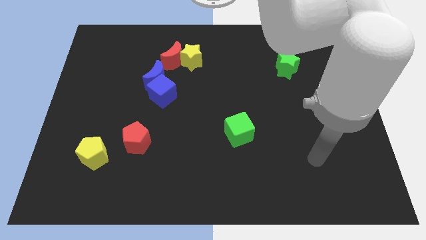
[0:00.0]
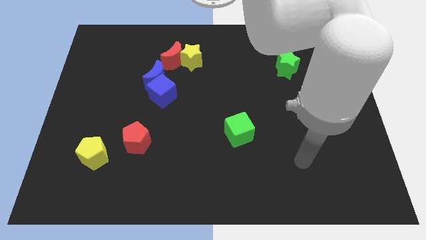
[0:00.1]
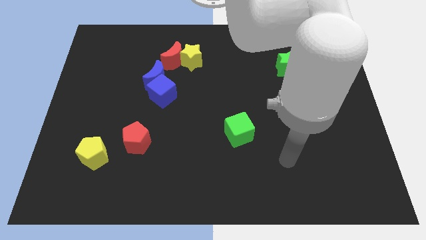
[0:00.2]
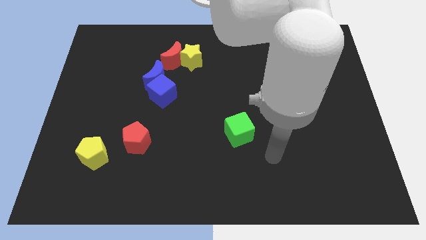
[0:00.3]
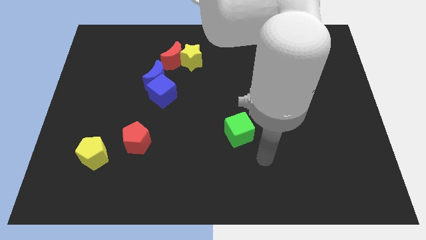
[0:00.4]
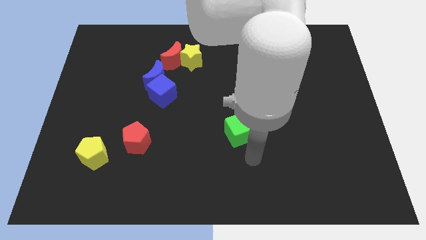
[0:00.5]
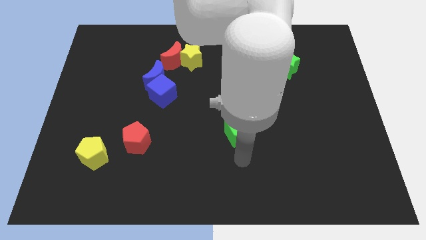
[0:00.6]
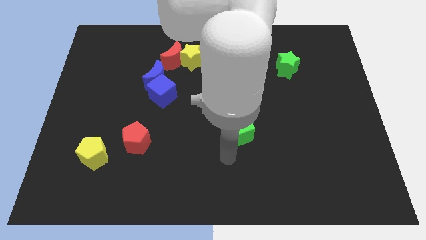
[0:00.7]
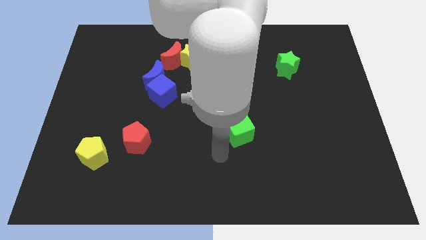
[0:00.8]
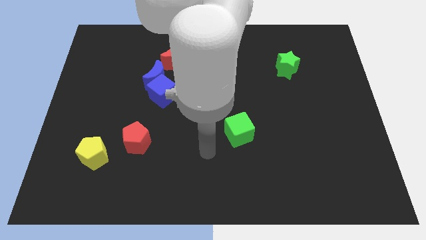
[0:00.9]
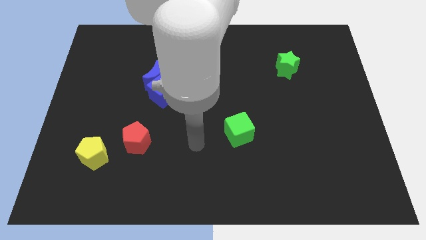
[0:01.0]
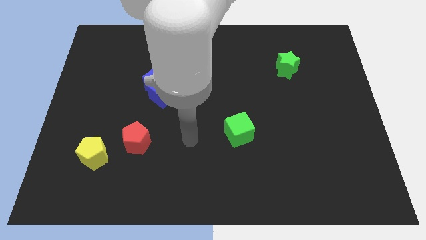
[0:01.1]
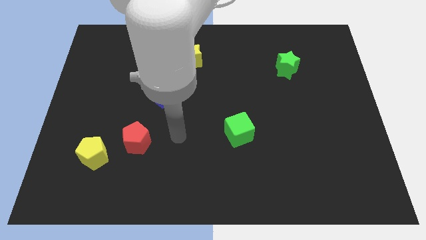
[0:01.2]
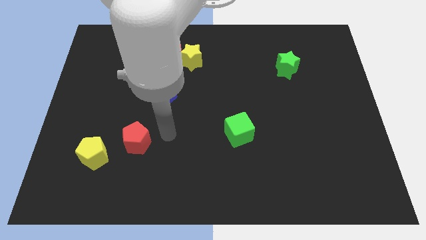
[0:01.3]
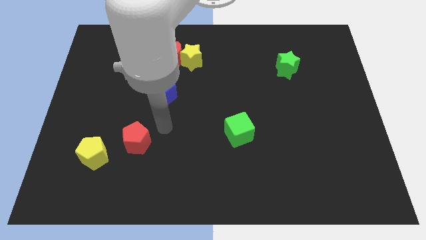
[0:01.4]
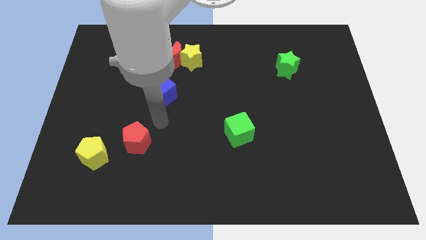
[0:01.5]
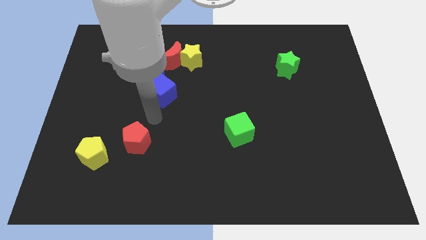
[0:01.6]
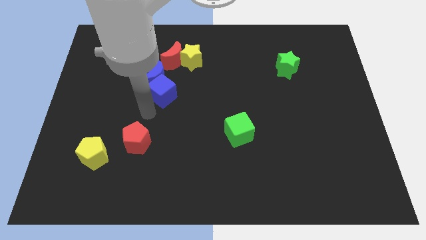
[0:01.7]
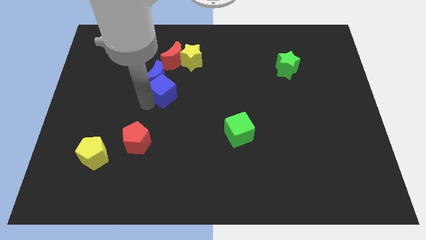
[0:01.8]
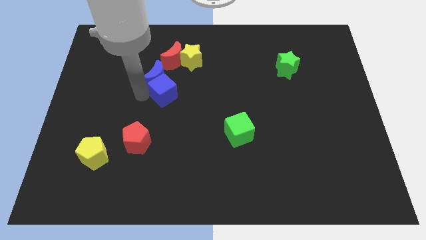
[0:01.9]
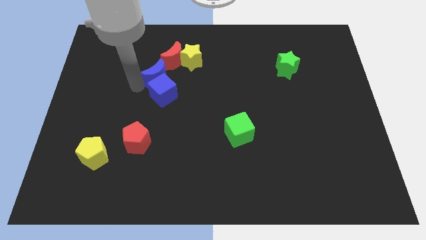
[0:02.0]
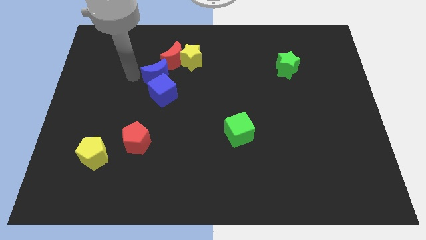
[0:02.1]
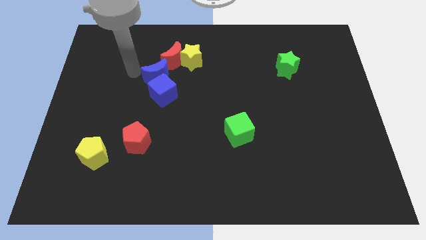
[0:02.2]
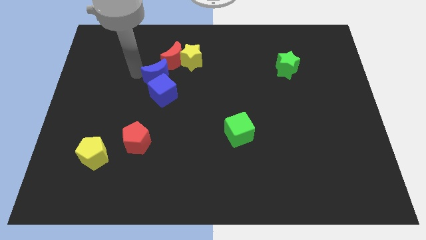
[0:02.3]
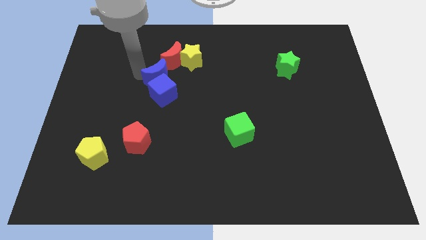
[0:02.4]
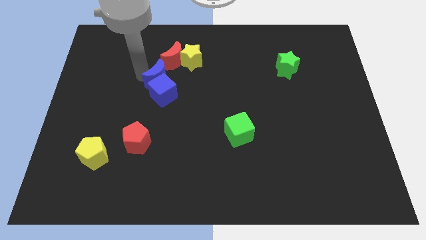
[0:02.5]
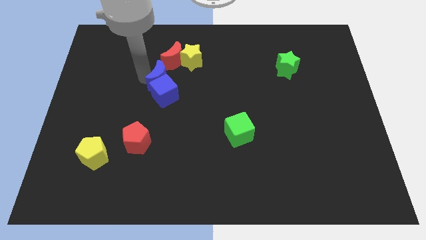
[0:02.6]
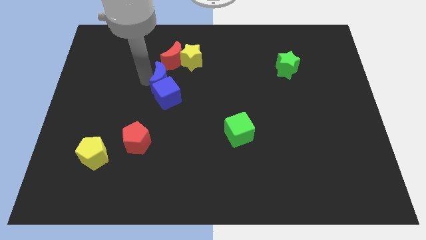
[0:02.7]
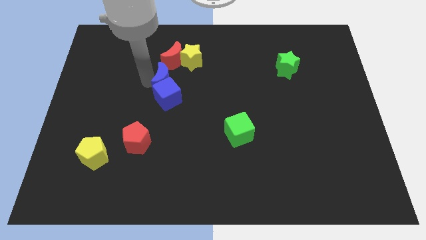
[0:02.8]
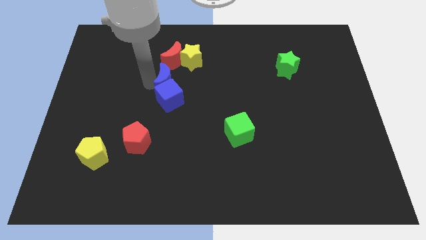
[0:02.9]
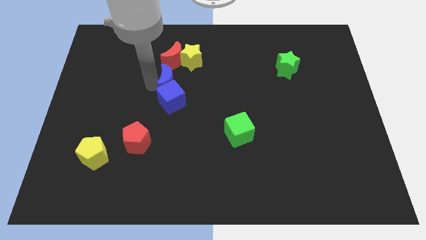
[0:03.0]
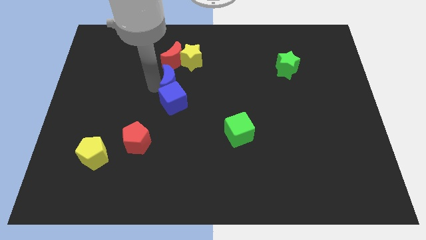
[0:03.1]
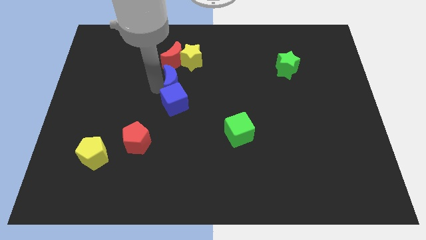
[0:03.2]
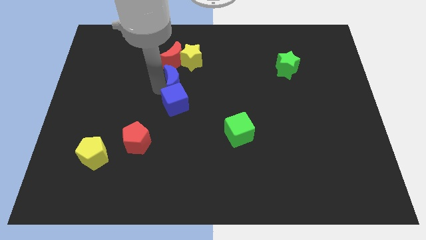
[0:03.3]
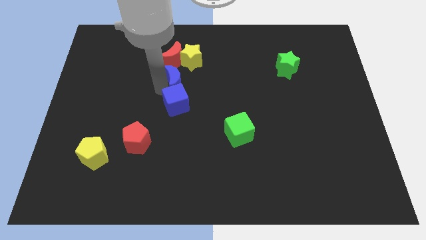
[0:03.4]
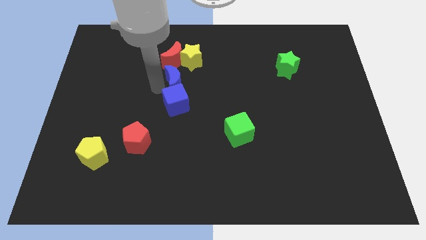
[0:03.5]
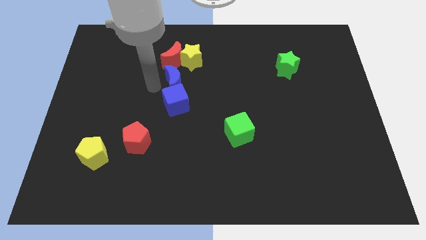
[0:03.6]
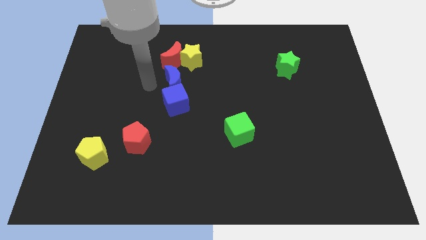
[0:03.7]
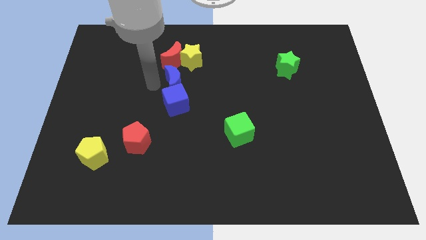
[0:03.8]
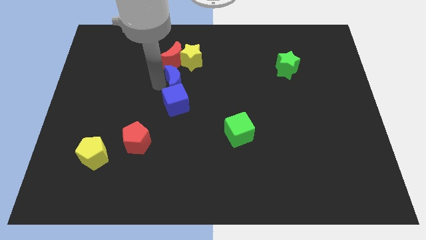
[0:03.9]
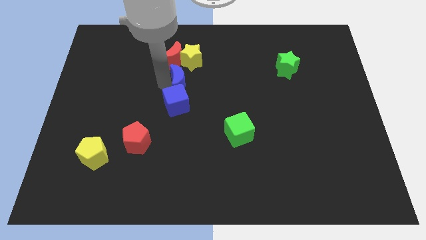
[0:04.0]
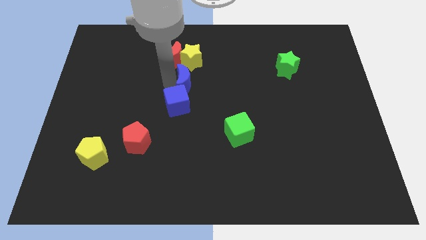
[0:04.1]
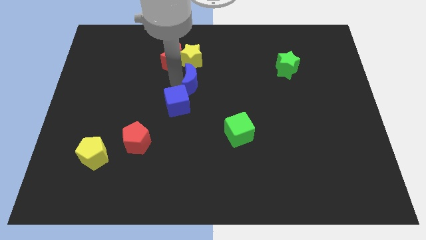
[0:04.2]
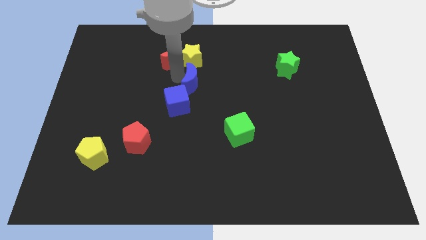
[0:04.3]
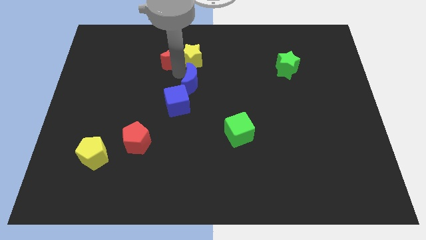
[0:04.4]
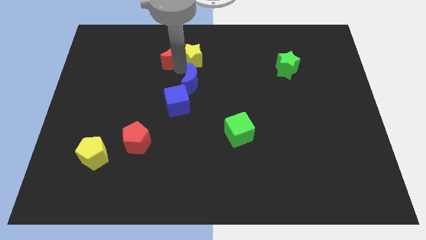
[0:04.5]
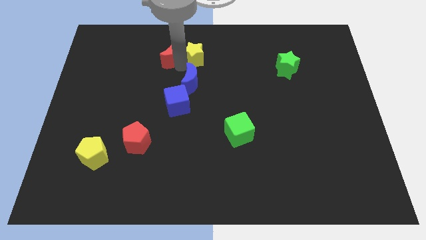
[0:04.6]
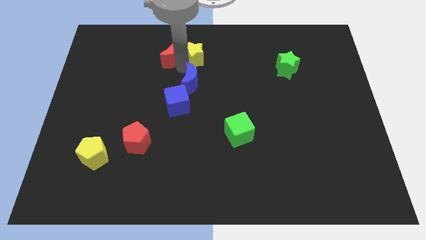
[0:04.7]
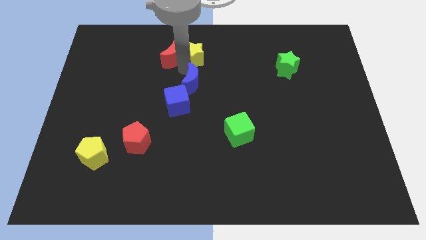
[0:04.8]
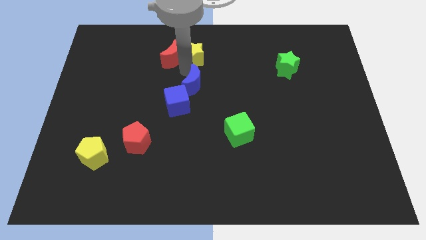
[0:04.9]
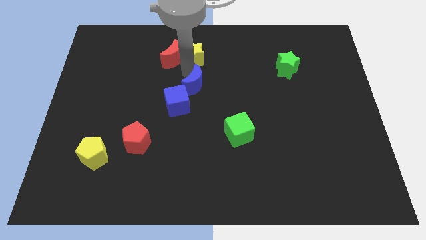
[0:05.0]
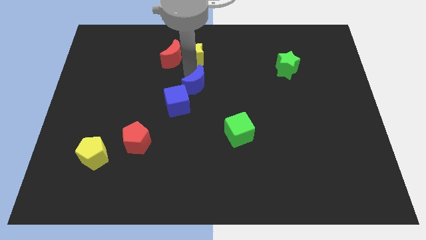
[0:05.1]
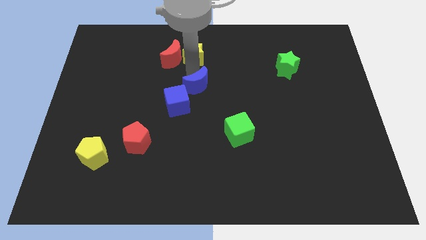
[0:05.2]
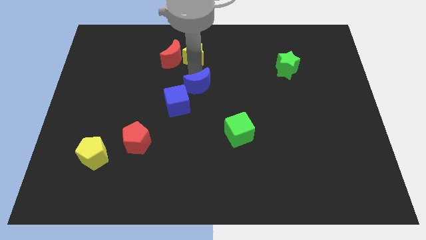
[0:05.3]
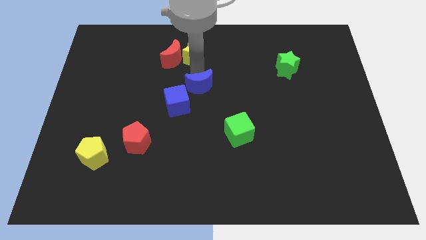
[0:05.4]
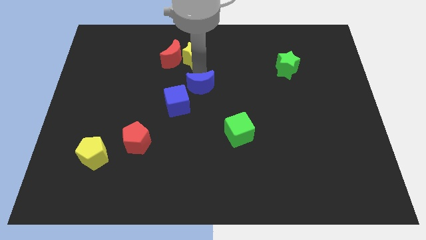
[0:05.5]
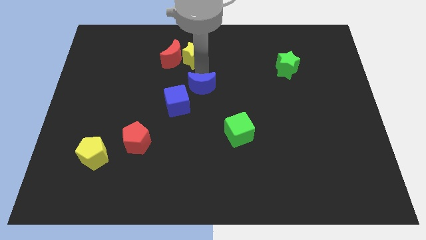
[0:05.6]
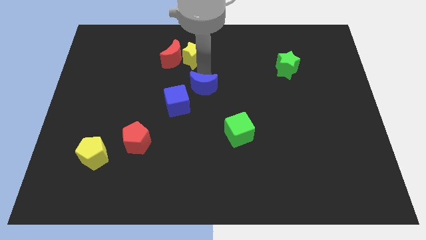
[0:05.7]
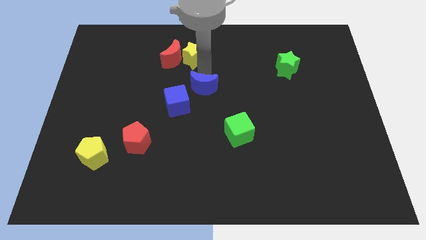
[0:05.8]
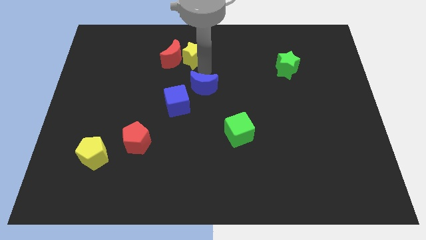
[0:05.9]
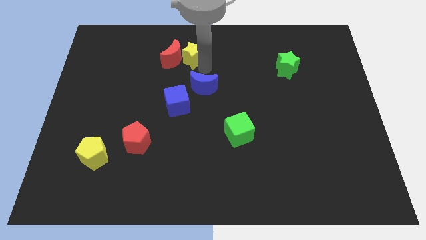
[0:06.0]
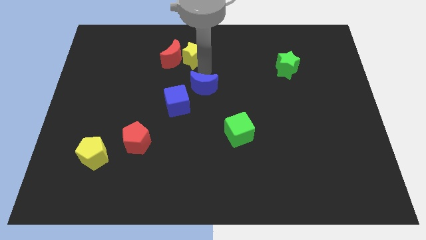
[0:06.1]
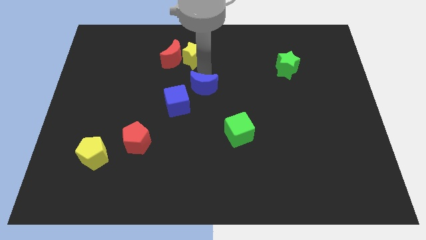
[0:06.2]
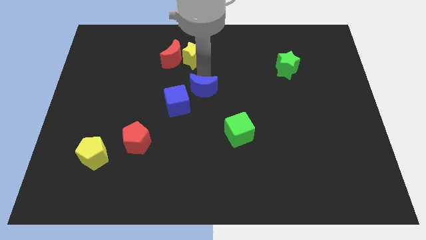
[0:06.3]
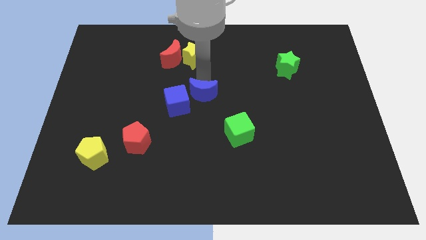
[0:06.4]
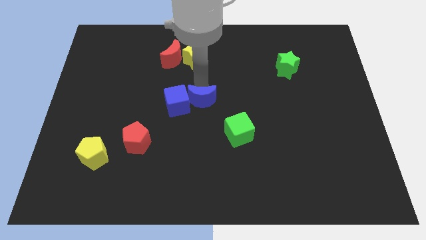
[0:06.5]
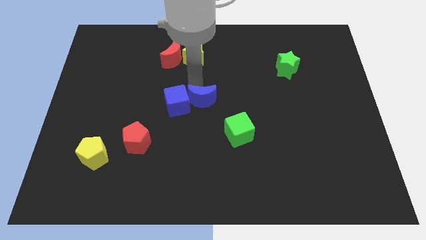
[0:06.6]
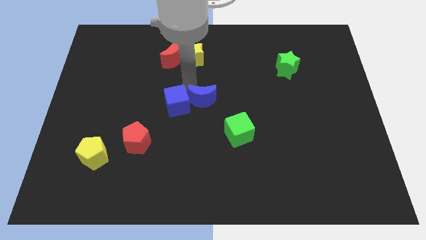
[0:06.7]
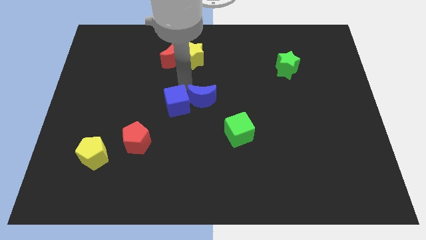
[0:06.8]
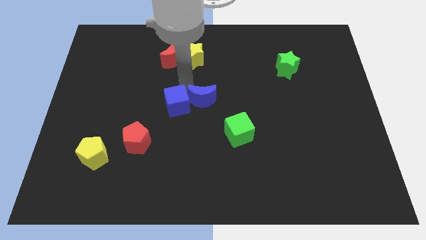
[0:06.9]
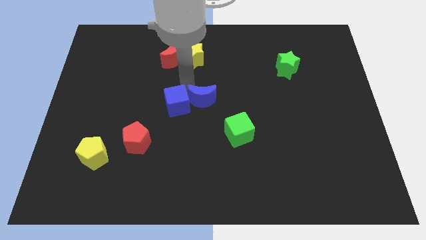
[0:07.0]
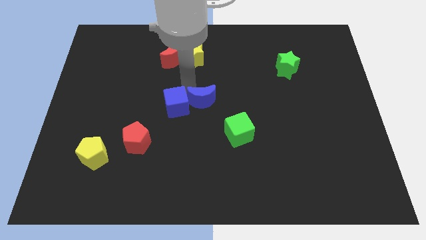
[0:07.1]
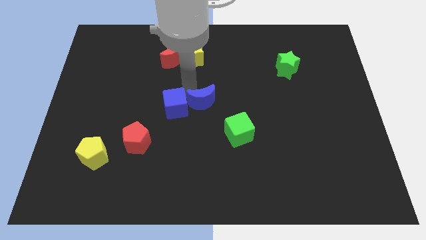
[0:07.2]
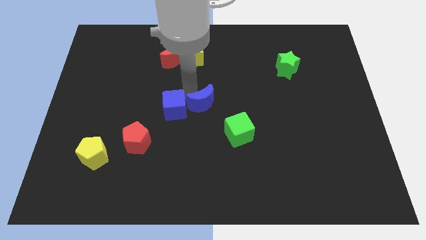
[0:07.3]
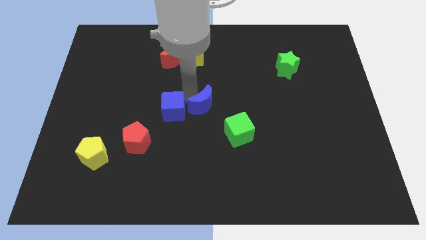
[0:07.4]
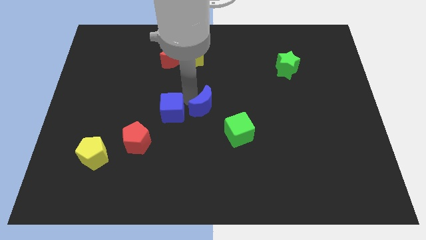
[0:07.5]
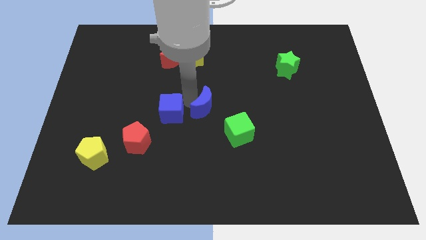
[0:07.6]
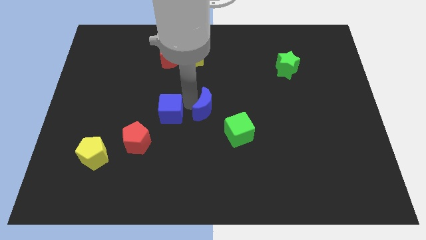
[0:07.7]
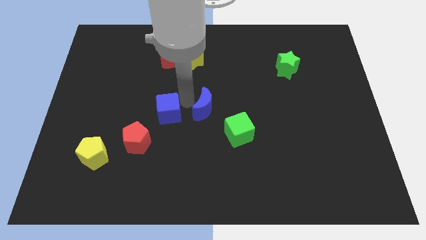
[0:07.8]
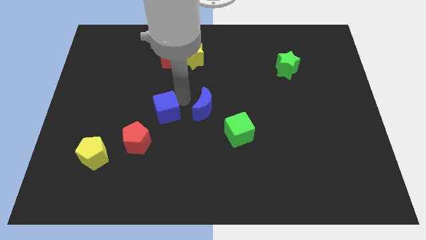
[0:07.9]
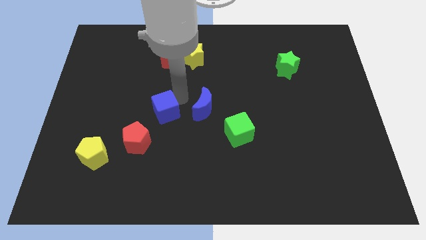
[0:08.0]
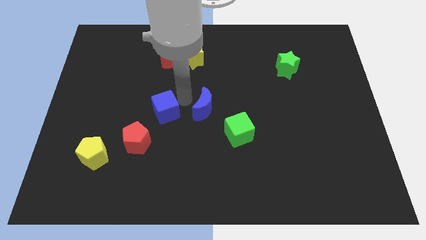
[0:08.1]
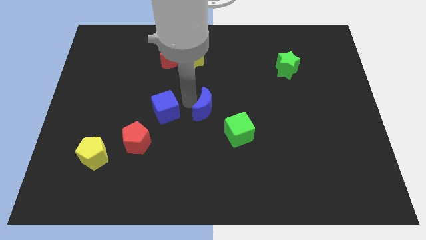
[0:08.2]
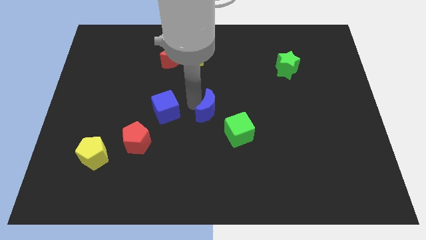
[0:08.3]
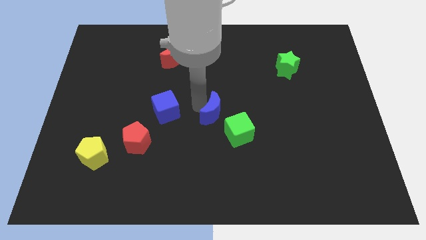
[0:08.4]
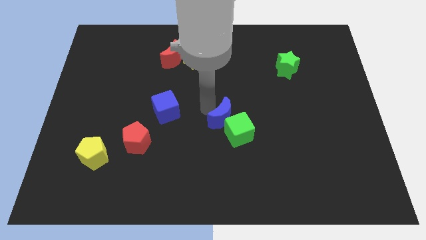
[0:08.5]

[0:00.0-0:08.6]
put the blue moon next to the green cube
